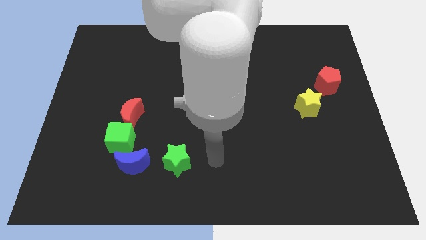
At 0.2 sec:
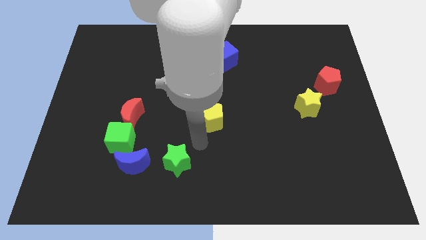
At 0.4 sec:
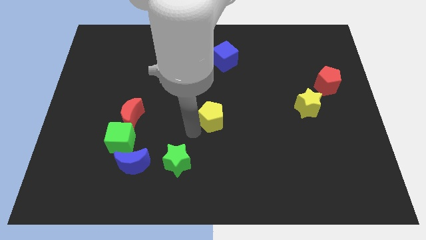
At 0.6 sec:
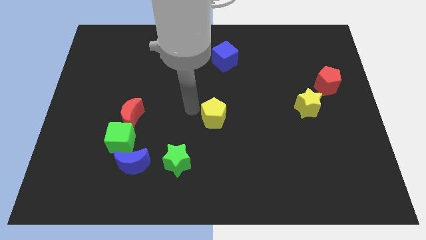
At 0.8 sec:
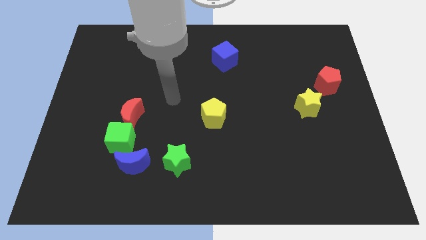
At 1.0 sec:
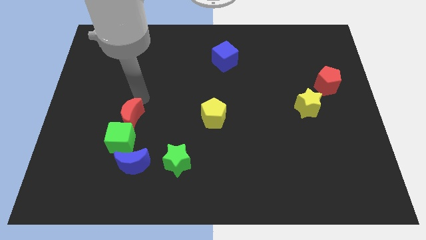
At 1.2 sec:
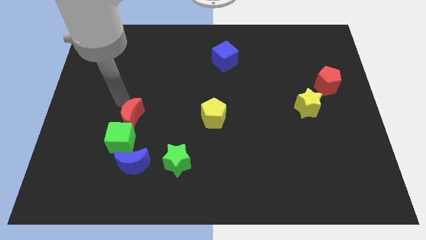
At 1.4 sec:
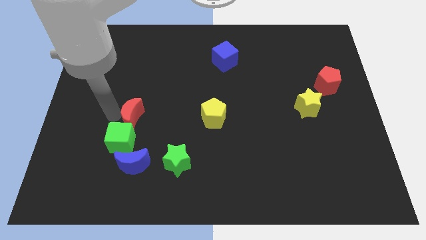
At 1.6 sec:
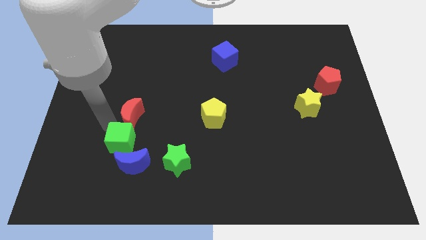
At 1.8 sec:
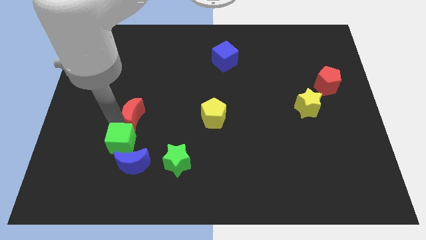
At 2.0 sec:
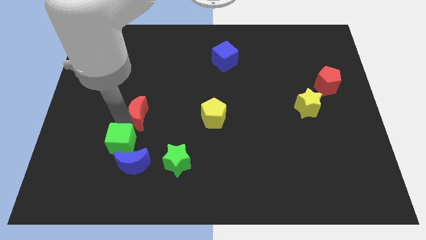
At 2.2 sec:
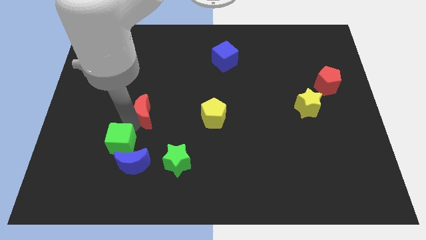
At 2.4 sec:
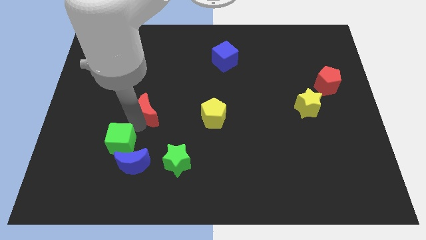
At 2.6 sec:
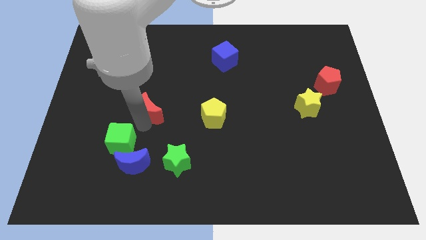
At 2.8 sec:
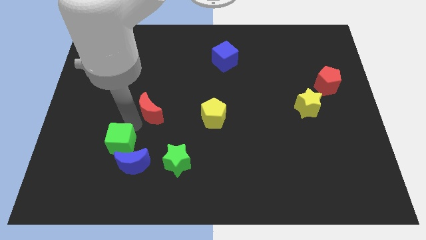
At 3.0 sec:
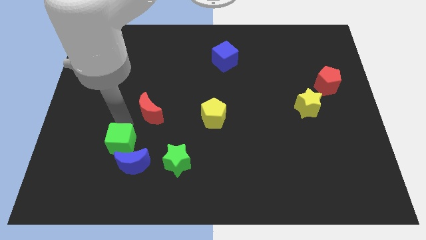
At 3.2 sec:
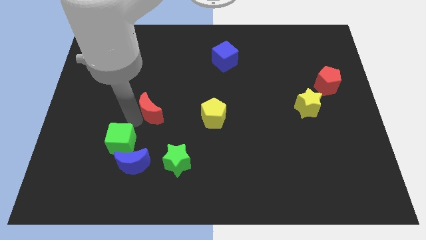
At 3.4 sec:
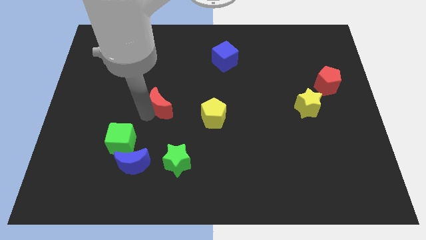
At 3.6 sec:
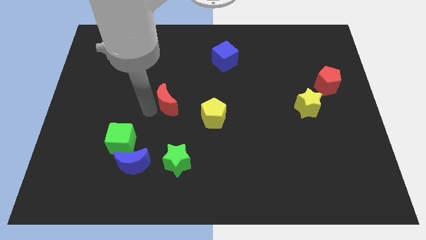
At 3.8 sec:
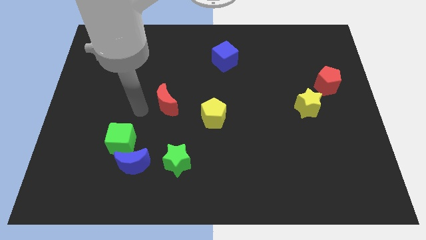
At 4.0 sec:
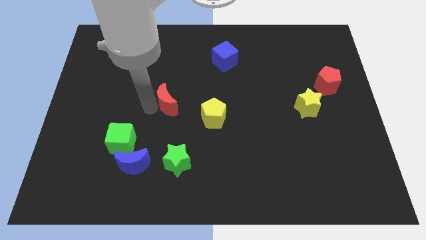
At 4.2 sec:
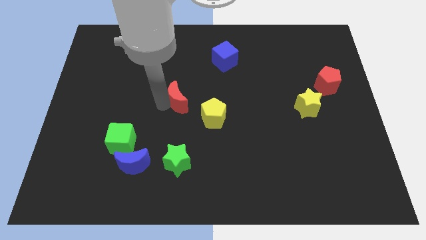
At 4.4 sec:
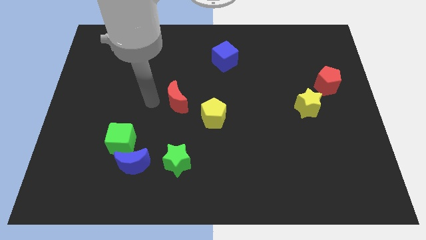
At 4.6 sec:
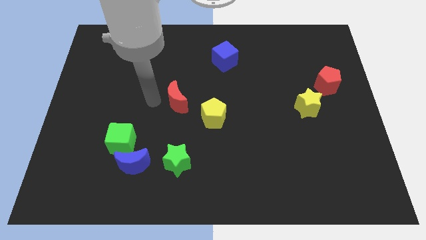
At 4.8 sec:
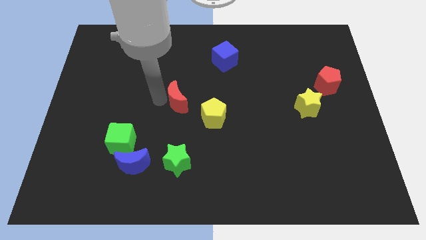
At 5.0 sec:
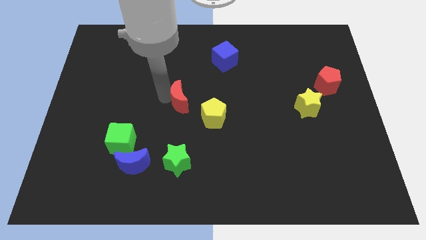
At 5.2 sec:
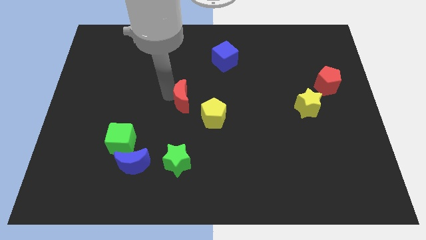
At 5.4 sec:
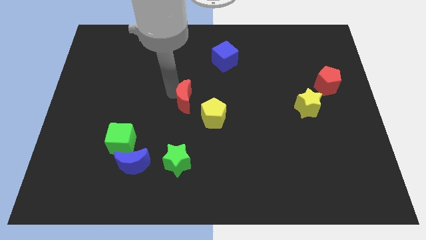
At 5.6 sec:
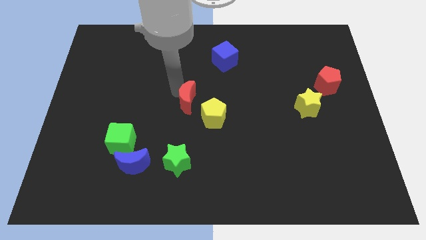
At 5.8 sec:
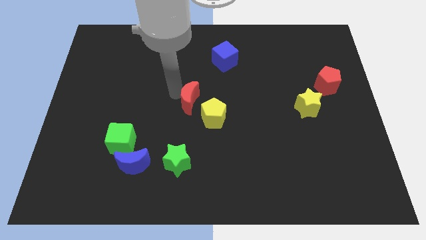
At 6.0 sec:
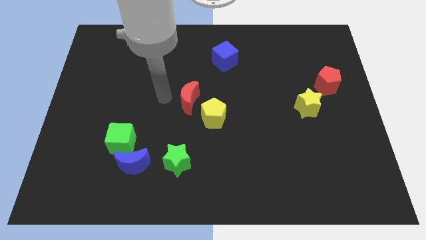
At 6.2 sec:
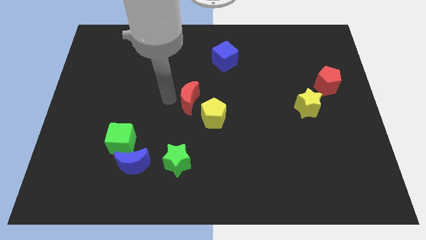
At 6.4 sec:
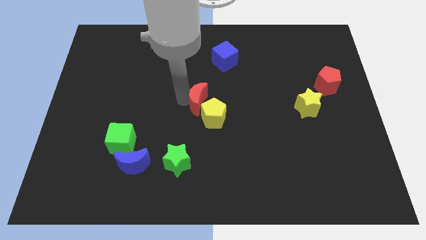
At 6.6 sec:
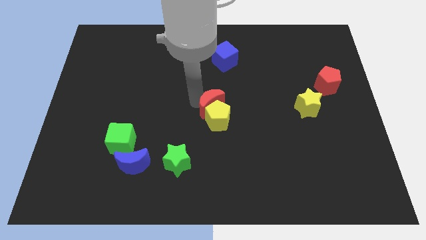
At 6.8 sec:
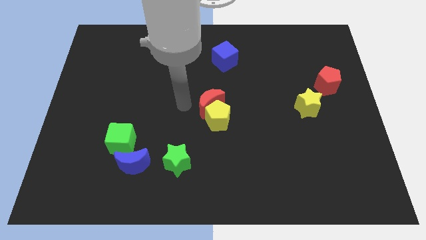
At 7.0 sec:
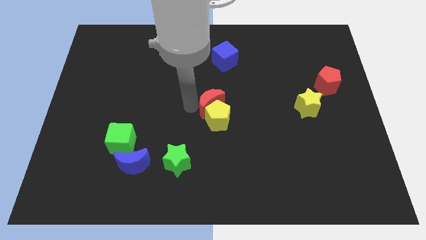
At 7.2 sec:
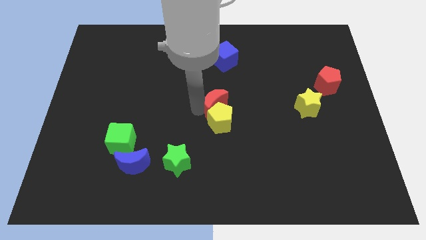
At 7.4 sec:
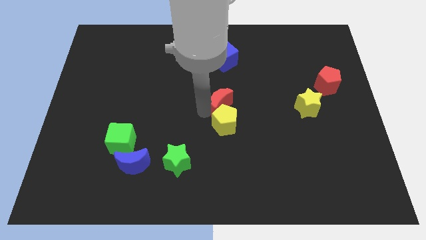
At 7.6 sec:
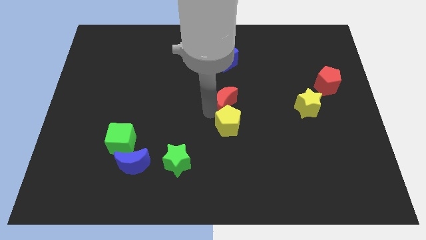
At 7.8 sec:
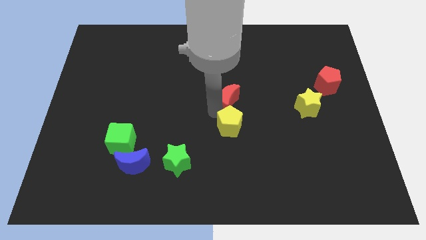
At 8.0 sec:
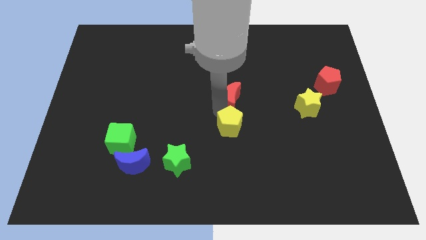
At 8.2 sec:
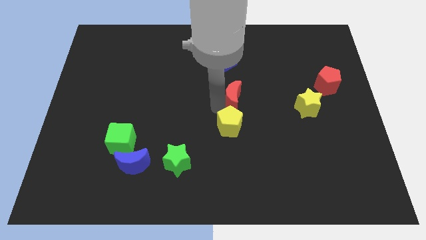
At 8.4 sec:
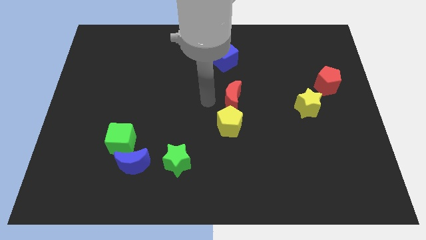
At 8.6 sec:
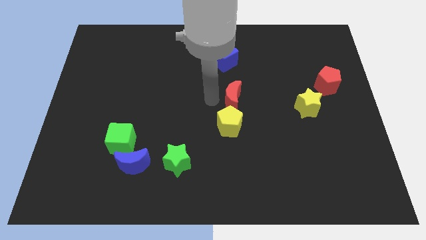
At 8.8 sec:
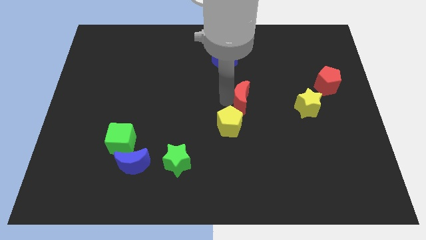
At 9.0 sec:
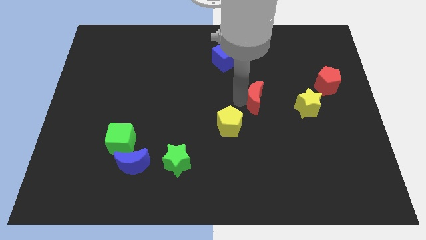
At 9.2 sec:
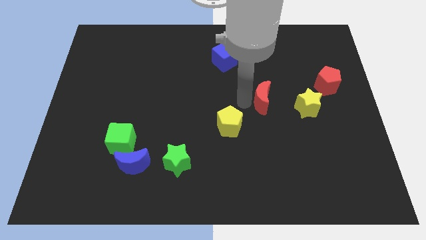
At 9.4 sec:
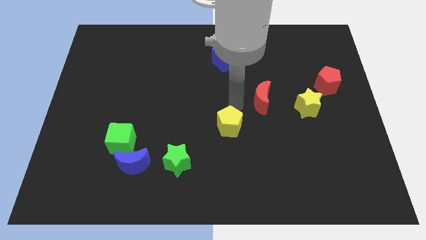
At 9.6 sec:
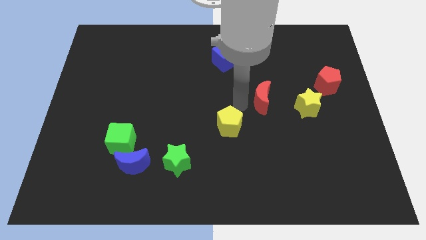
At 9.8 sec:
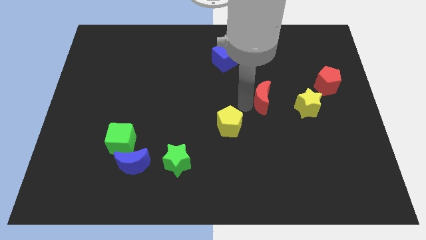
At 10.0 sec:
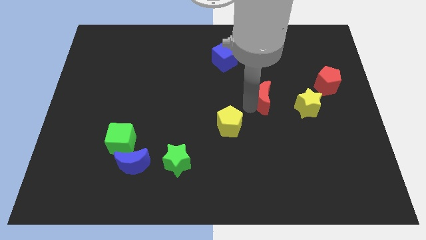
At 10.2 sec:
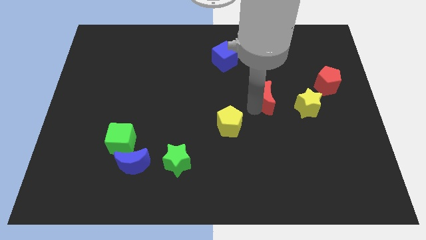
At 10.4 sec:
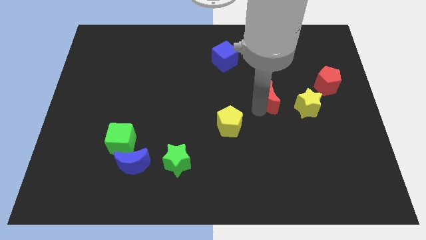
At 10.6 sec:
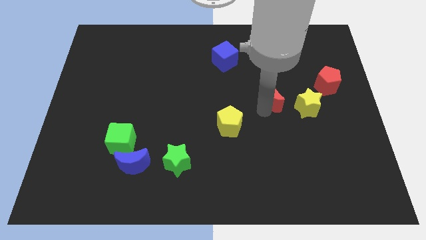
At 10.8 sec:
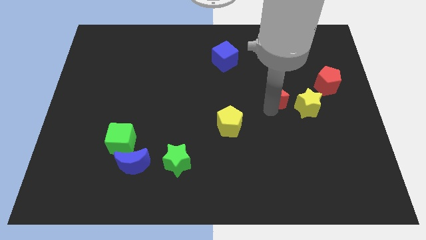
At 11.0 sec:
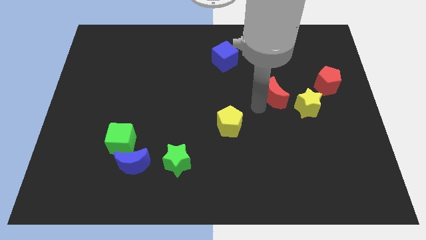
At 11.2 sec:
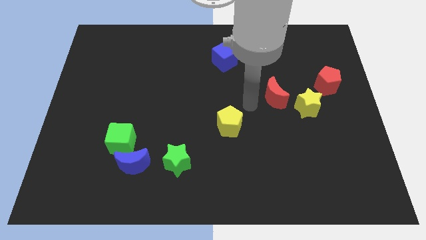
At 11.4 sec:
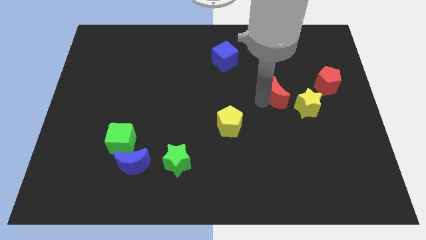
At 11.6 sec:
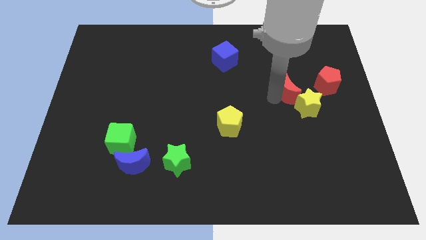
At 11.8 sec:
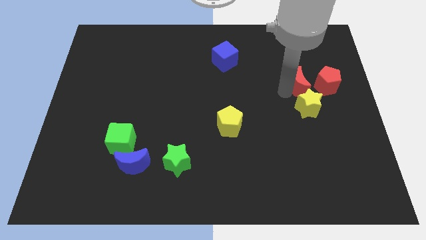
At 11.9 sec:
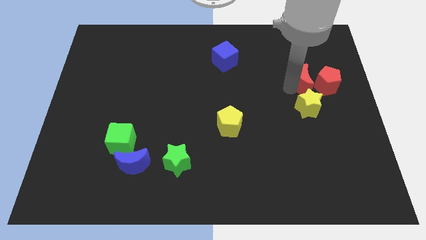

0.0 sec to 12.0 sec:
slide the red moon next to the red pentagon
